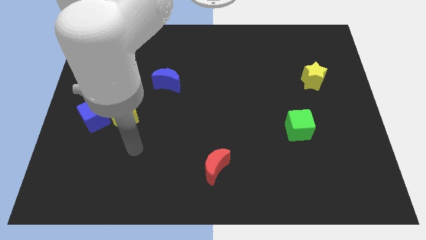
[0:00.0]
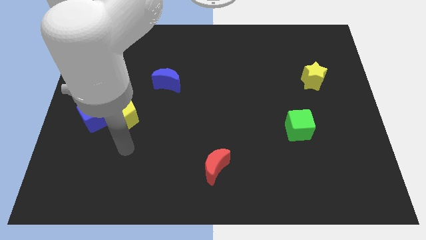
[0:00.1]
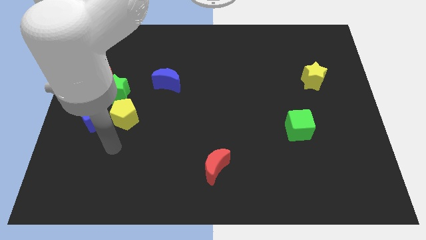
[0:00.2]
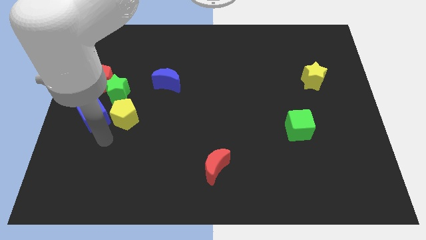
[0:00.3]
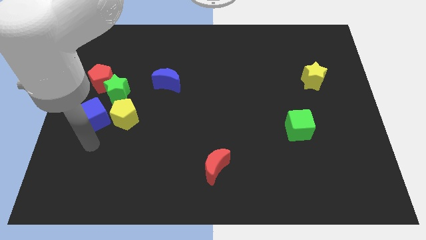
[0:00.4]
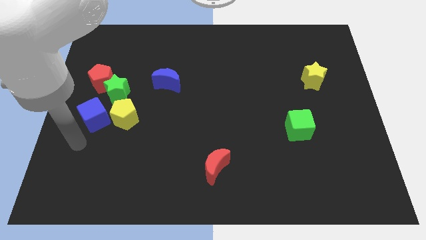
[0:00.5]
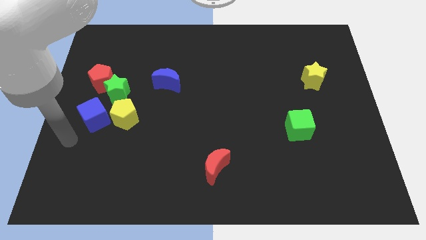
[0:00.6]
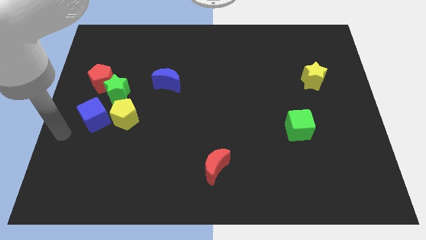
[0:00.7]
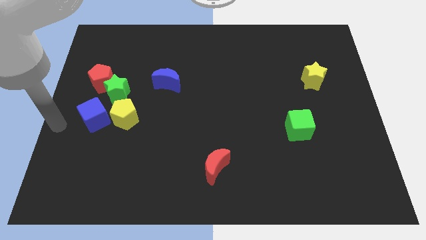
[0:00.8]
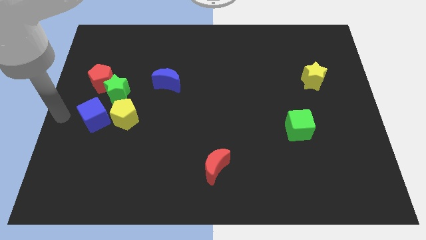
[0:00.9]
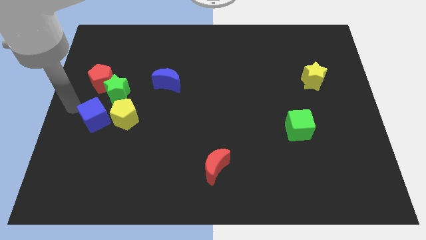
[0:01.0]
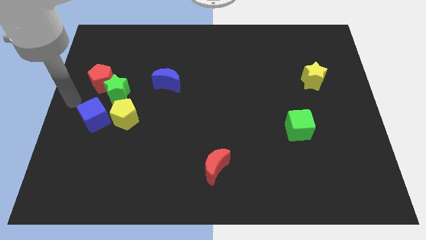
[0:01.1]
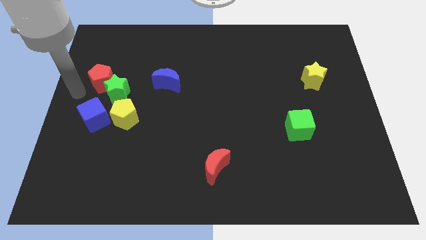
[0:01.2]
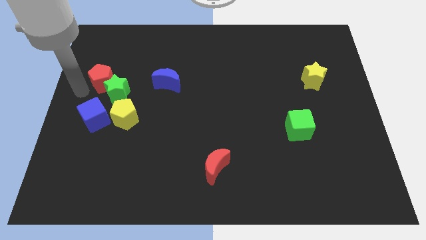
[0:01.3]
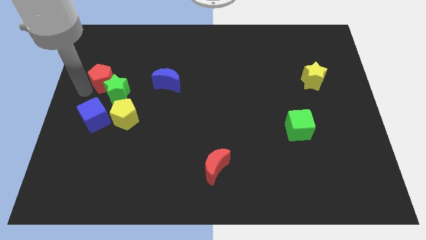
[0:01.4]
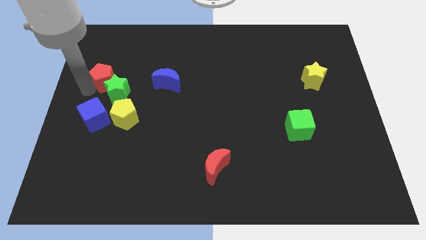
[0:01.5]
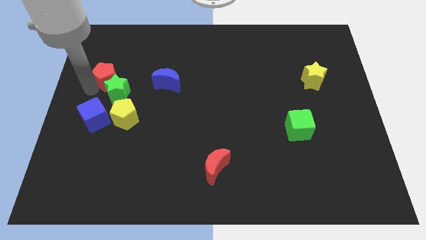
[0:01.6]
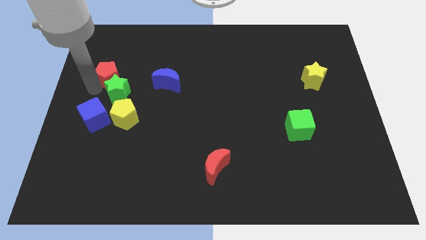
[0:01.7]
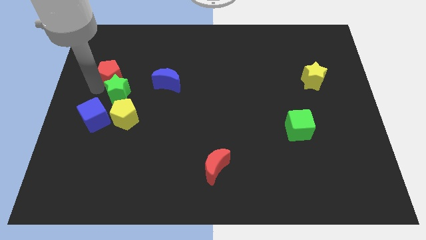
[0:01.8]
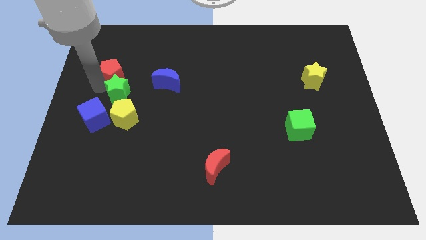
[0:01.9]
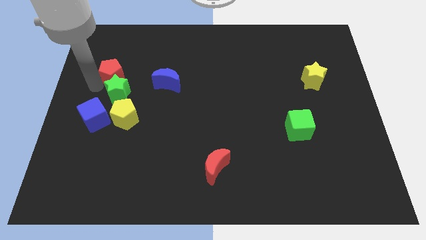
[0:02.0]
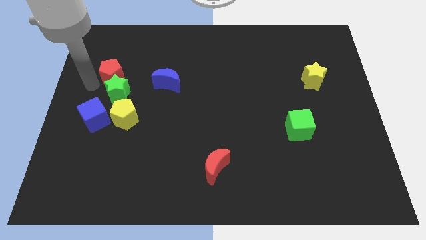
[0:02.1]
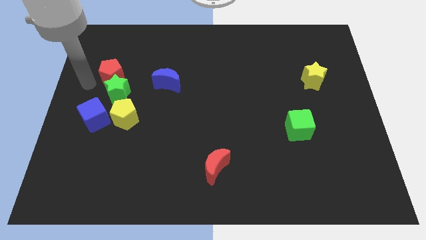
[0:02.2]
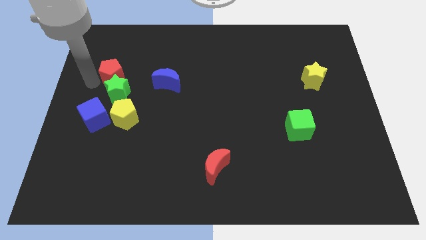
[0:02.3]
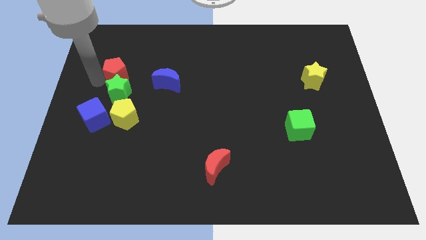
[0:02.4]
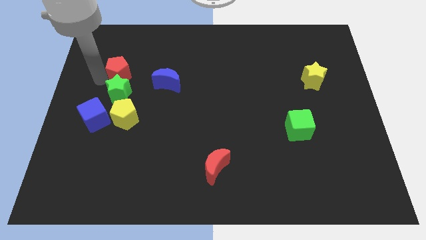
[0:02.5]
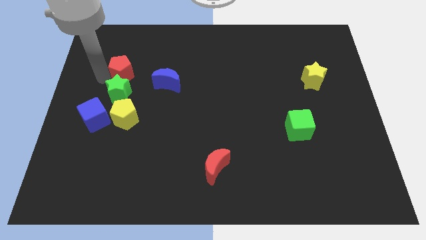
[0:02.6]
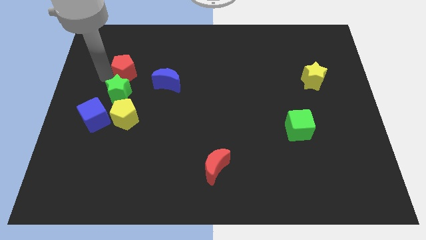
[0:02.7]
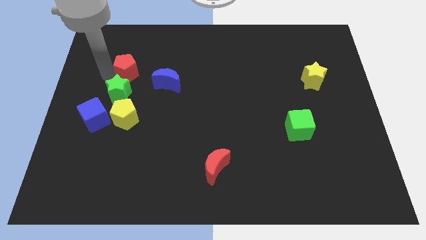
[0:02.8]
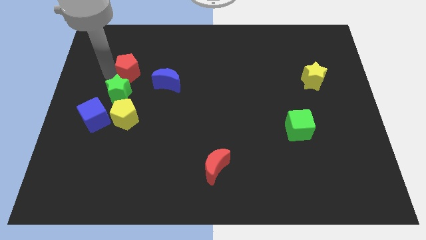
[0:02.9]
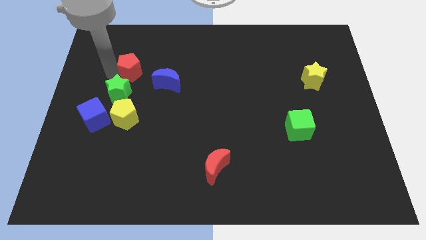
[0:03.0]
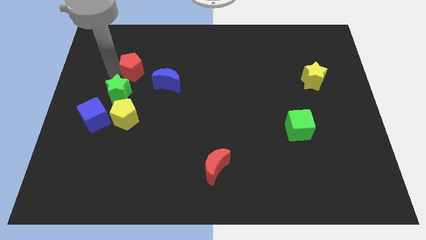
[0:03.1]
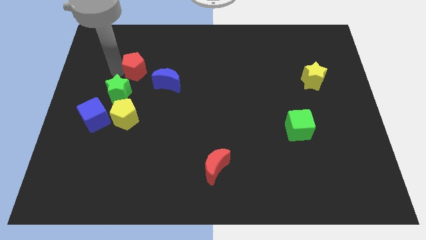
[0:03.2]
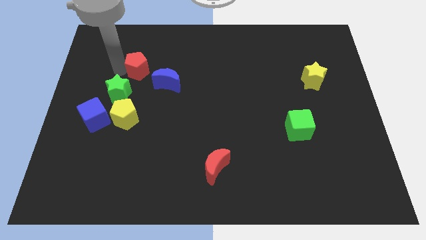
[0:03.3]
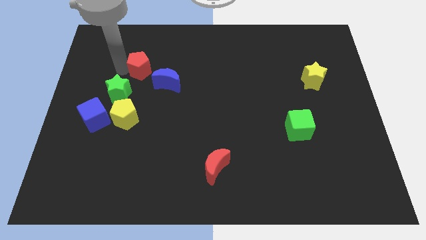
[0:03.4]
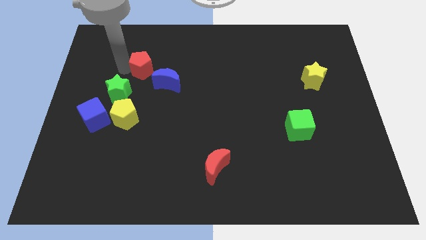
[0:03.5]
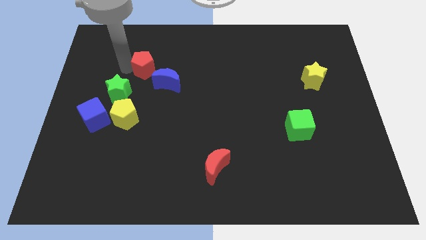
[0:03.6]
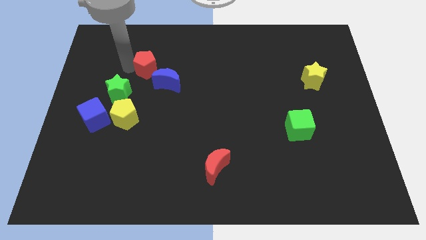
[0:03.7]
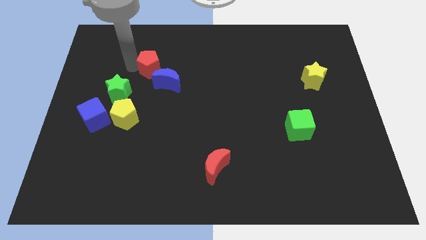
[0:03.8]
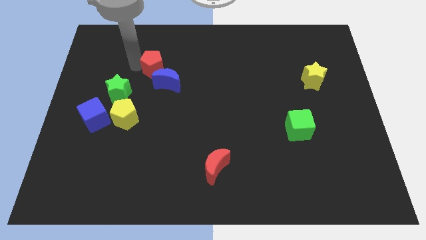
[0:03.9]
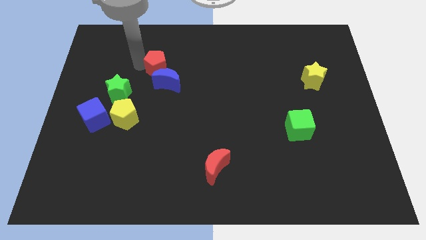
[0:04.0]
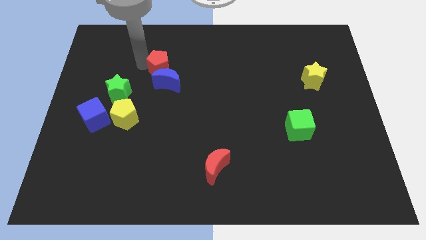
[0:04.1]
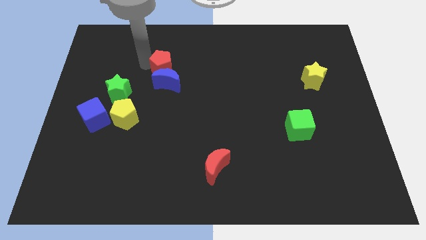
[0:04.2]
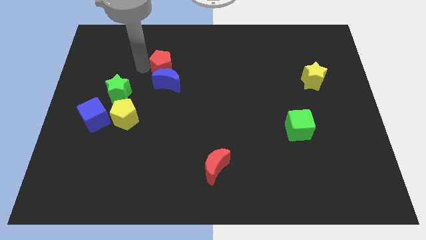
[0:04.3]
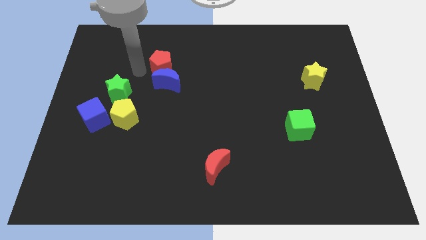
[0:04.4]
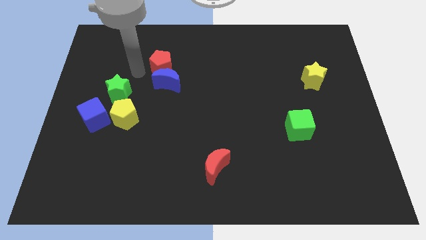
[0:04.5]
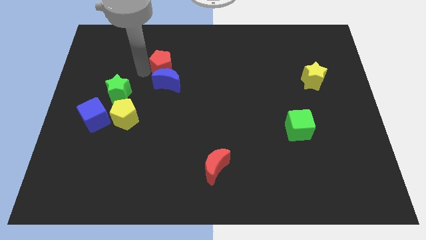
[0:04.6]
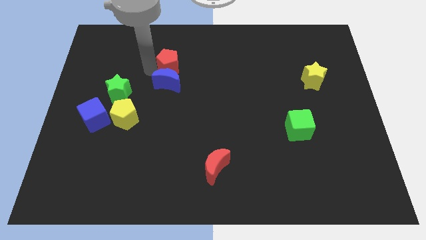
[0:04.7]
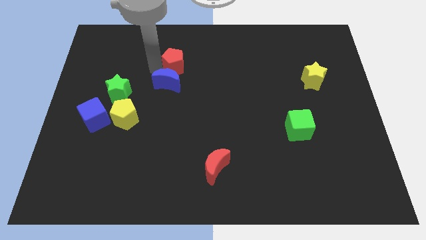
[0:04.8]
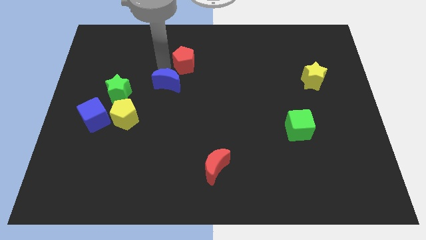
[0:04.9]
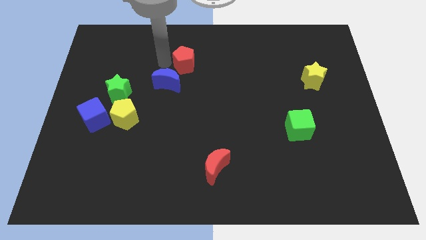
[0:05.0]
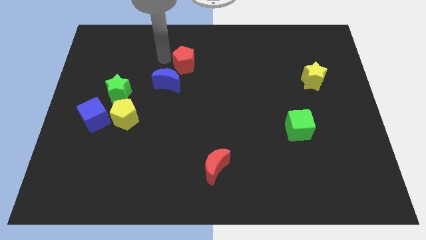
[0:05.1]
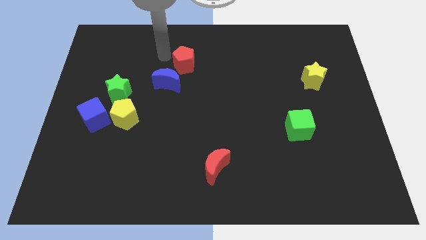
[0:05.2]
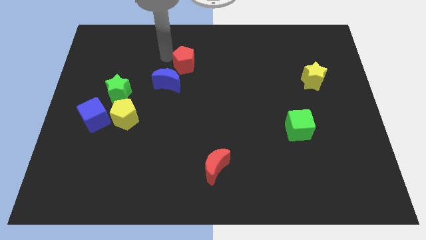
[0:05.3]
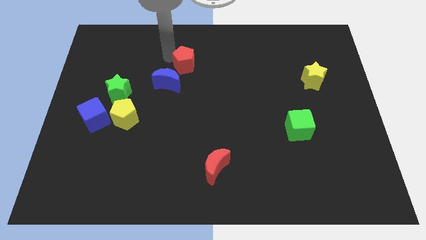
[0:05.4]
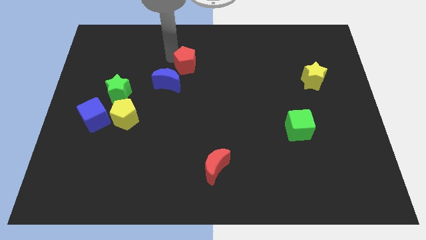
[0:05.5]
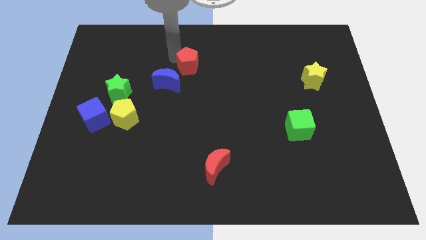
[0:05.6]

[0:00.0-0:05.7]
slide the red pentagon to the right

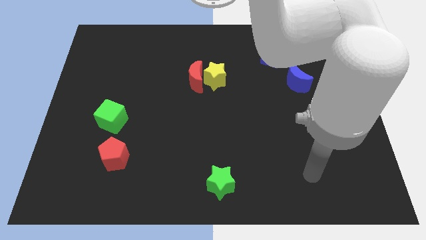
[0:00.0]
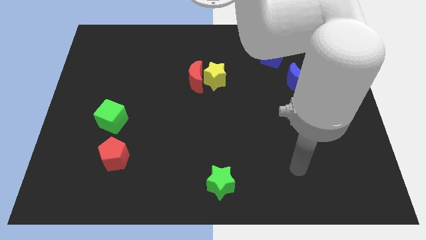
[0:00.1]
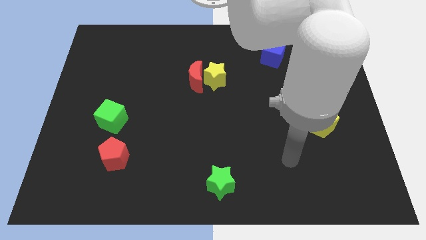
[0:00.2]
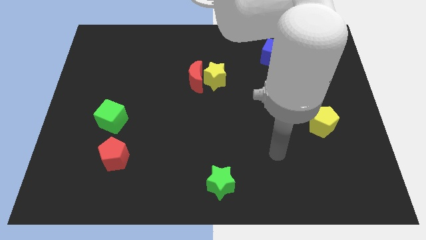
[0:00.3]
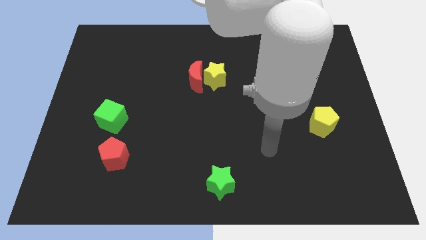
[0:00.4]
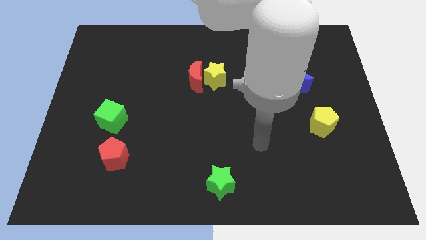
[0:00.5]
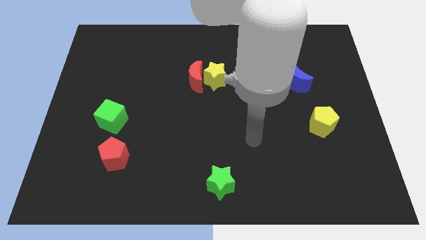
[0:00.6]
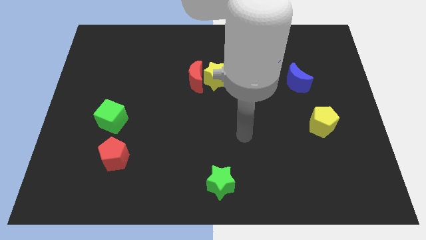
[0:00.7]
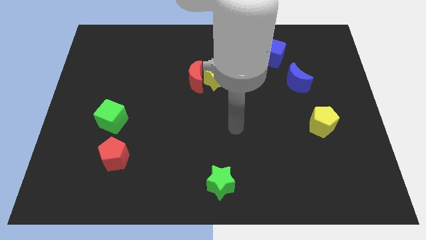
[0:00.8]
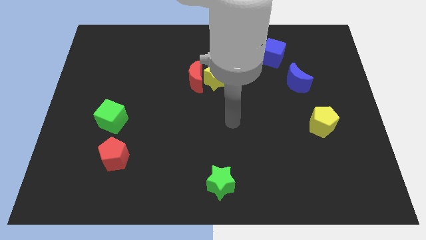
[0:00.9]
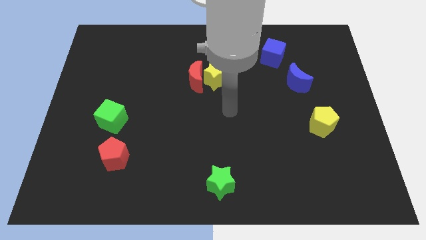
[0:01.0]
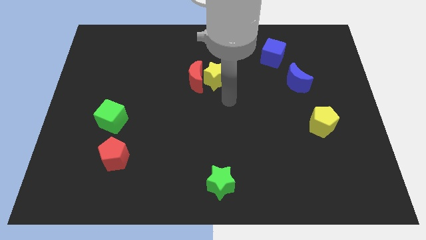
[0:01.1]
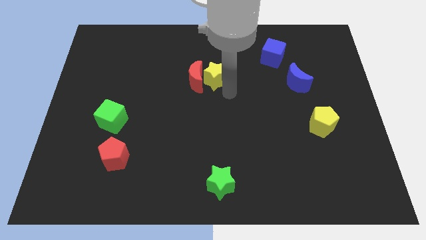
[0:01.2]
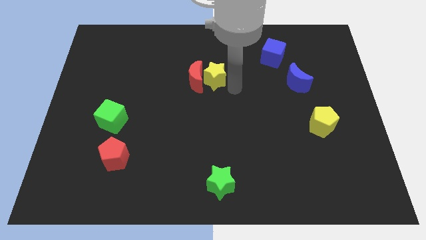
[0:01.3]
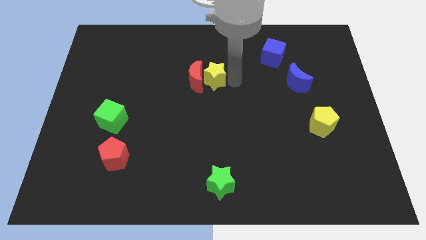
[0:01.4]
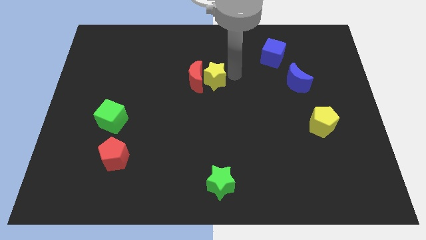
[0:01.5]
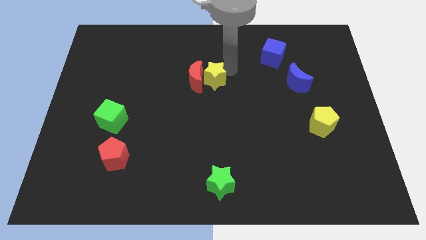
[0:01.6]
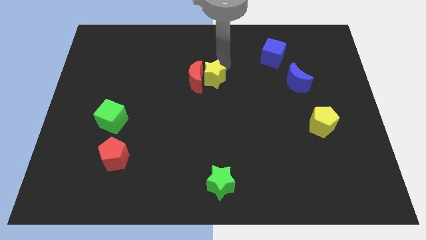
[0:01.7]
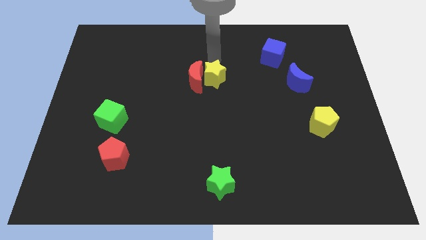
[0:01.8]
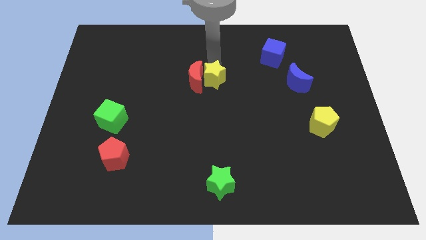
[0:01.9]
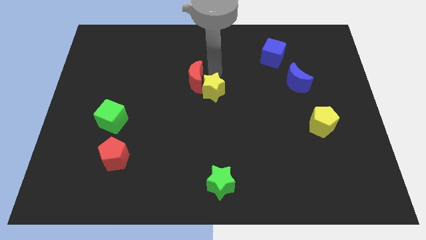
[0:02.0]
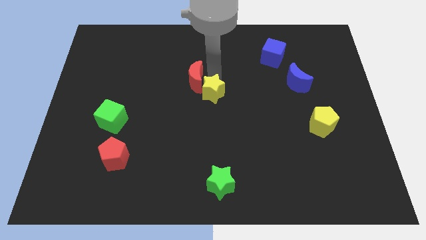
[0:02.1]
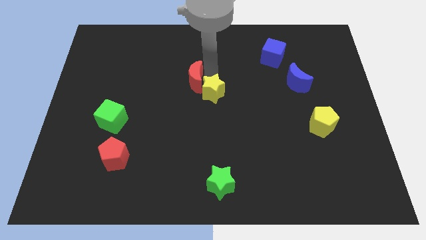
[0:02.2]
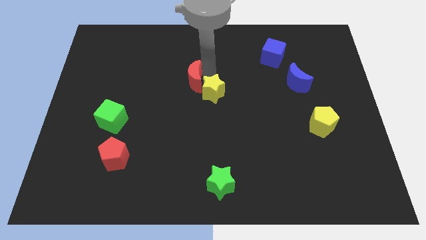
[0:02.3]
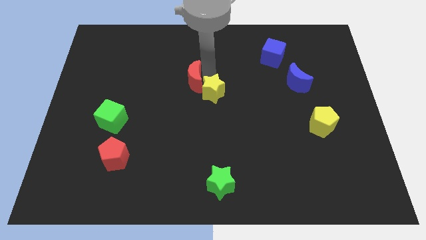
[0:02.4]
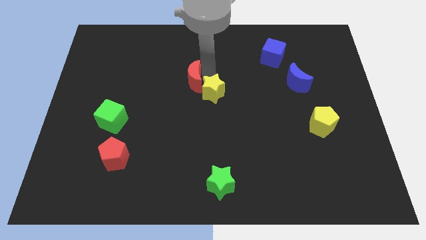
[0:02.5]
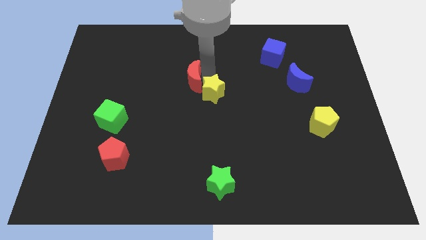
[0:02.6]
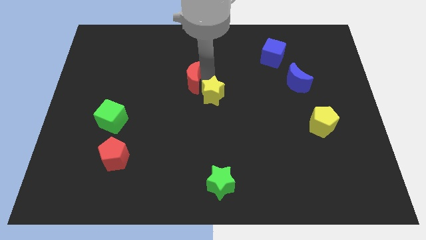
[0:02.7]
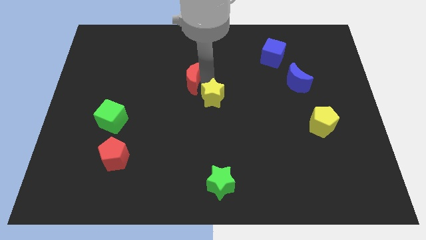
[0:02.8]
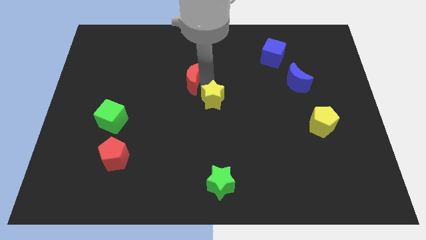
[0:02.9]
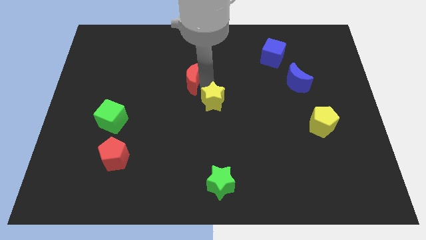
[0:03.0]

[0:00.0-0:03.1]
move the yellow star down a bit
